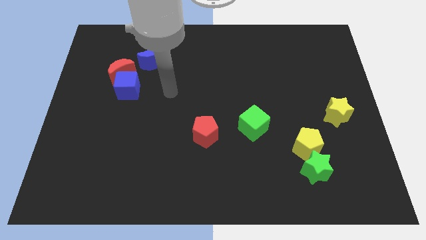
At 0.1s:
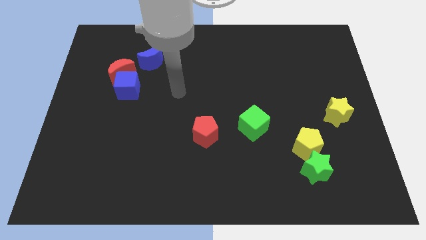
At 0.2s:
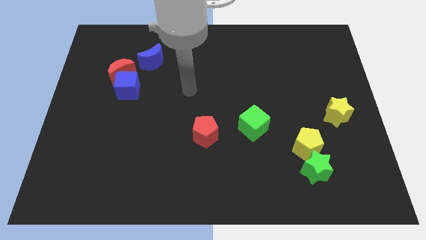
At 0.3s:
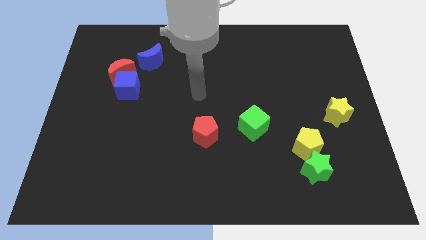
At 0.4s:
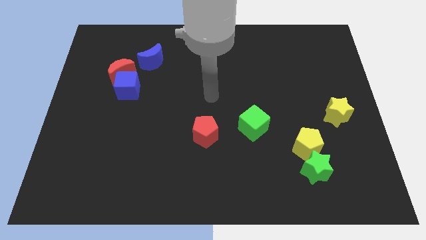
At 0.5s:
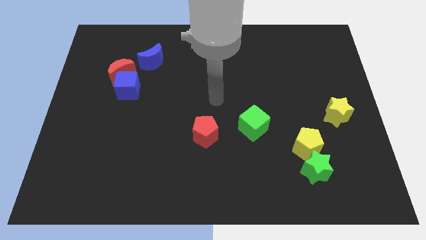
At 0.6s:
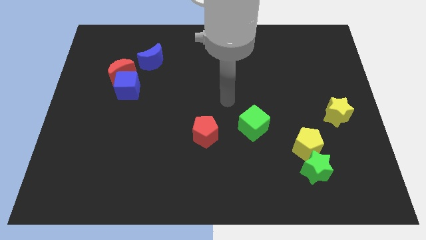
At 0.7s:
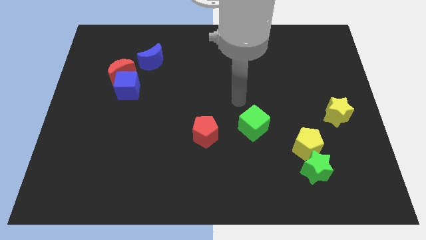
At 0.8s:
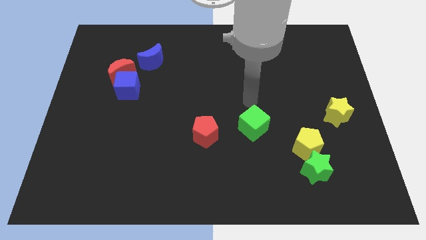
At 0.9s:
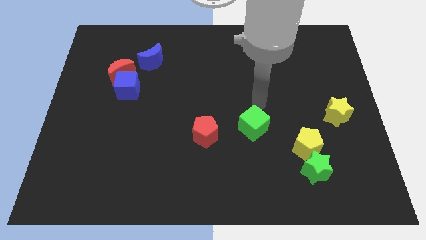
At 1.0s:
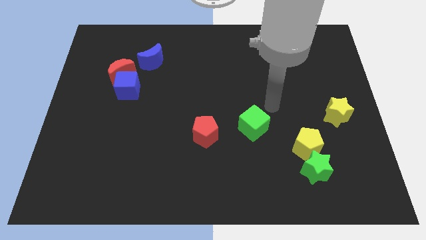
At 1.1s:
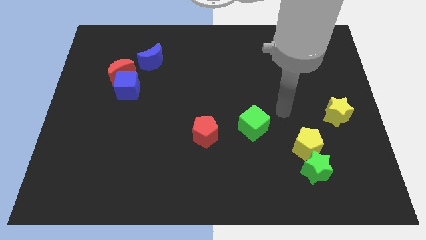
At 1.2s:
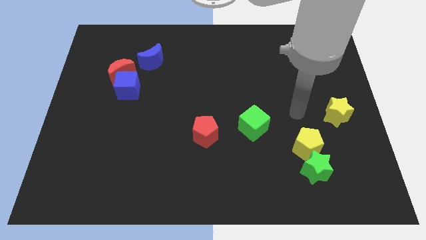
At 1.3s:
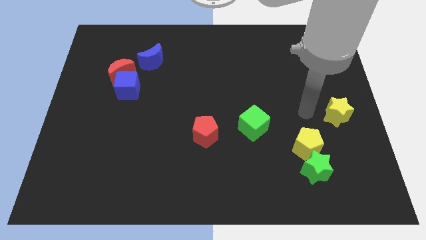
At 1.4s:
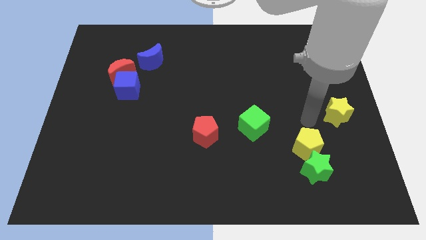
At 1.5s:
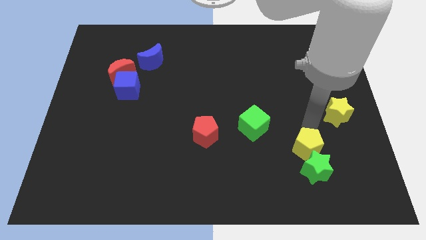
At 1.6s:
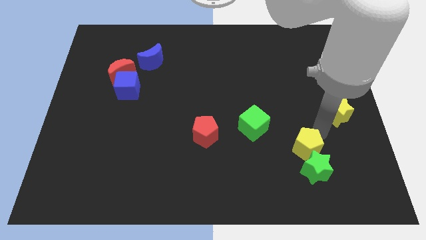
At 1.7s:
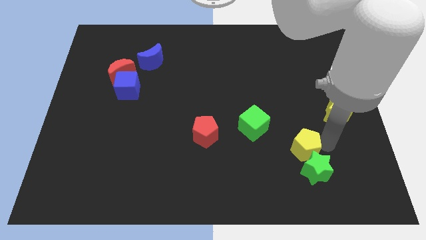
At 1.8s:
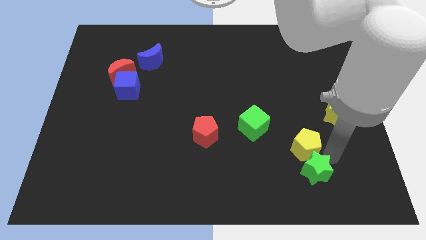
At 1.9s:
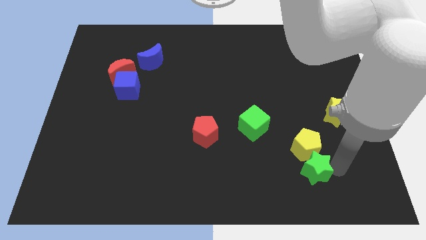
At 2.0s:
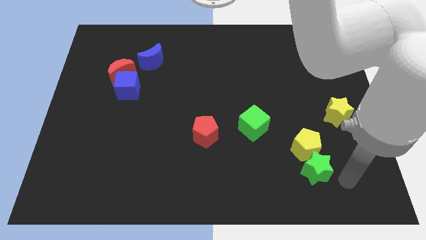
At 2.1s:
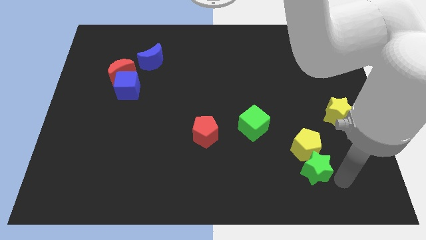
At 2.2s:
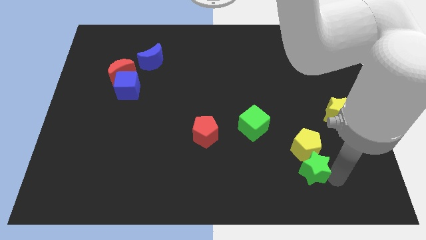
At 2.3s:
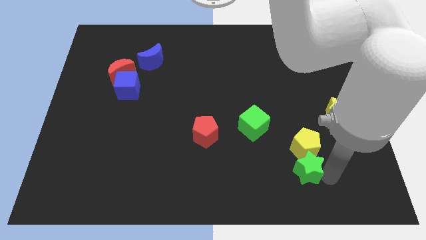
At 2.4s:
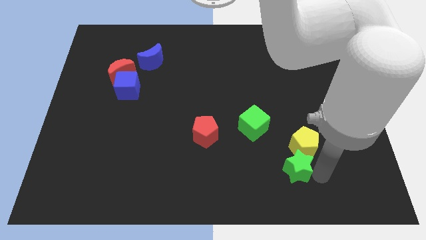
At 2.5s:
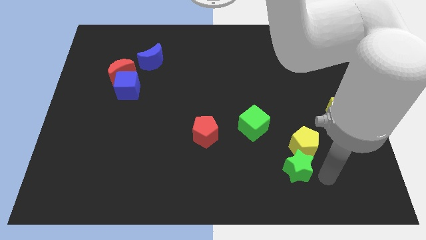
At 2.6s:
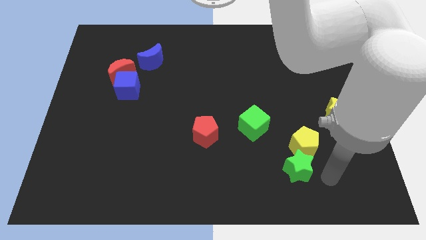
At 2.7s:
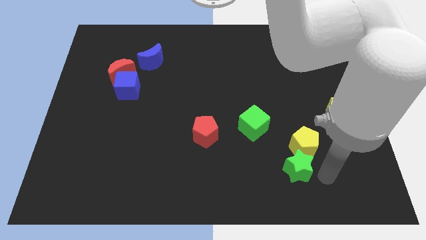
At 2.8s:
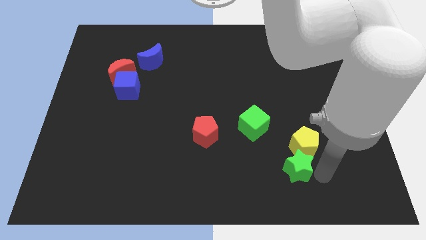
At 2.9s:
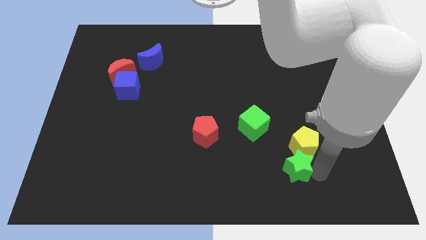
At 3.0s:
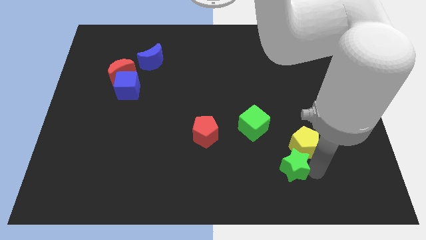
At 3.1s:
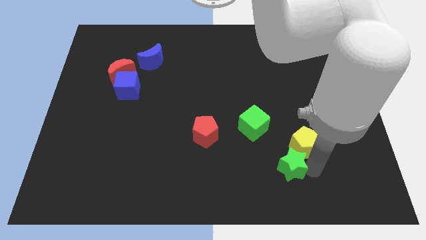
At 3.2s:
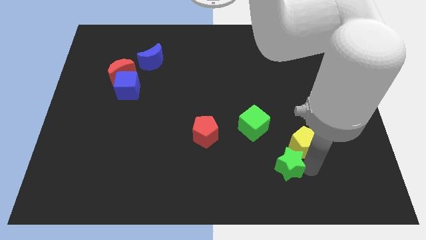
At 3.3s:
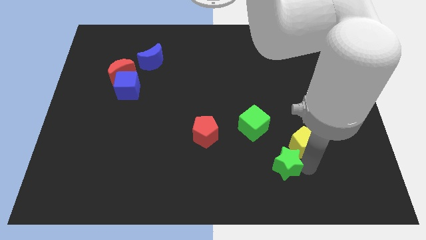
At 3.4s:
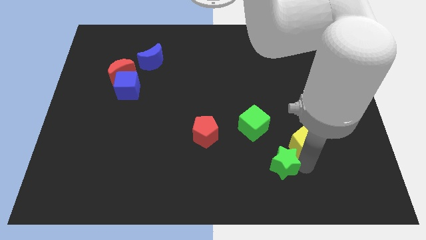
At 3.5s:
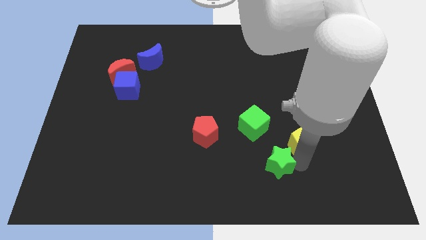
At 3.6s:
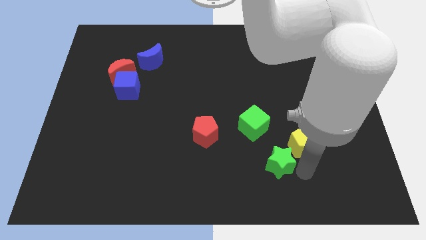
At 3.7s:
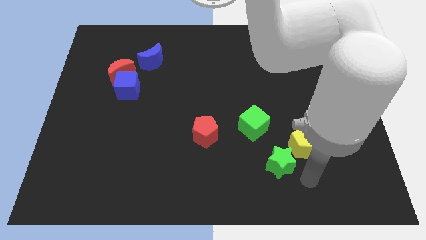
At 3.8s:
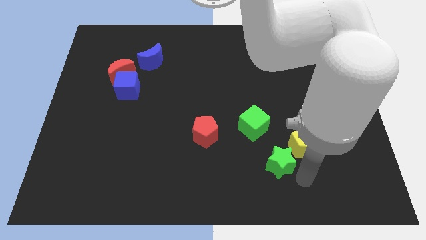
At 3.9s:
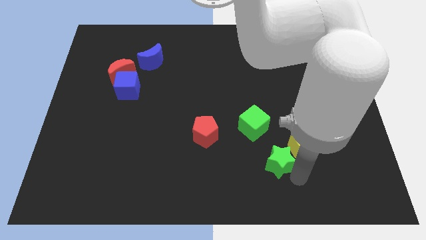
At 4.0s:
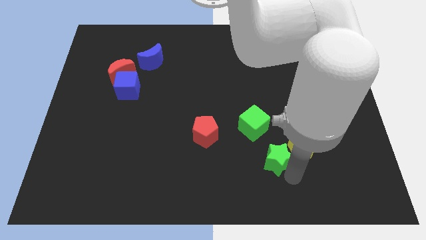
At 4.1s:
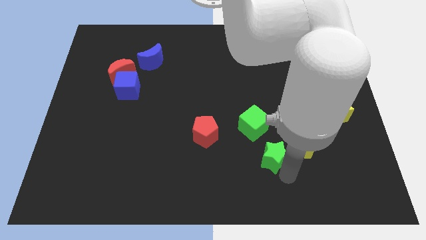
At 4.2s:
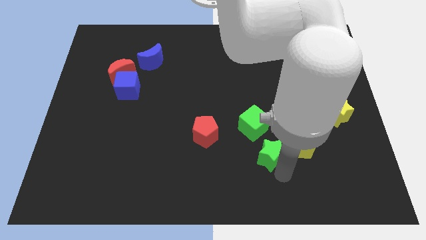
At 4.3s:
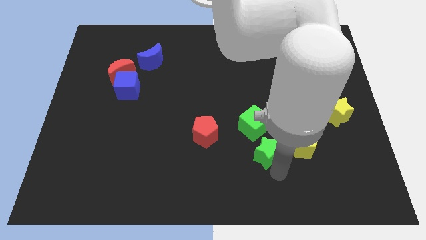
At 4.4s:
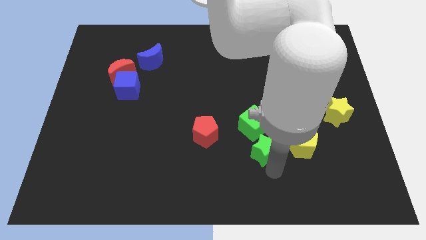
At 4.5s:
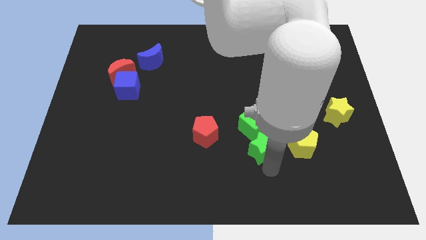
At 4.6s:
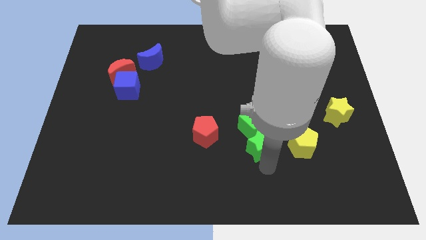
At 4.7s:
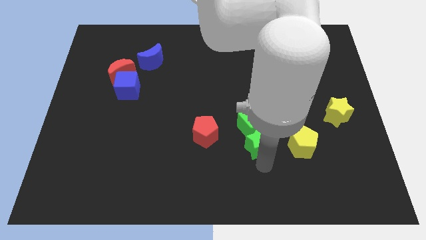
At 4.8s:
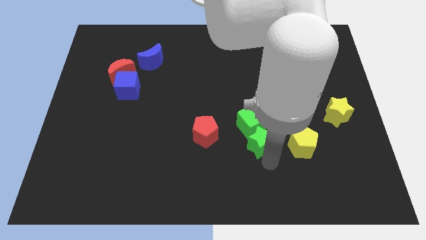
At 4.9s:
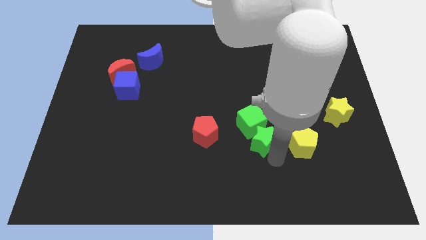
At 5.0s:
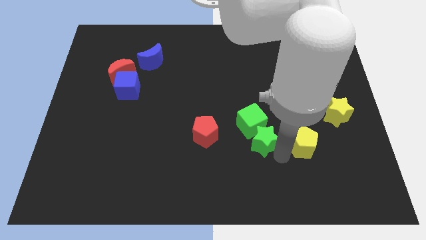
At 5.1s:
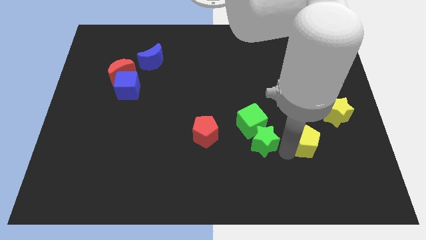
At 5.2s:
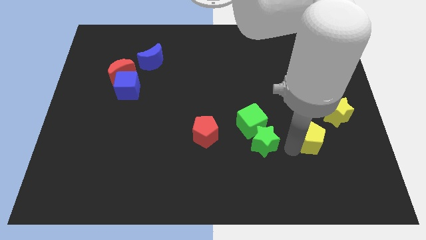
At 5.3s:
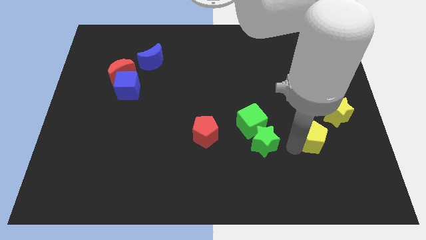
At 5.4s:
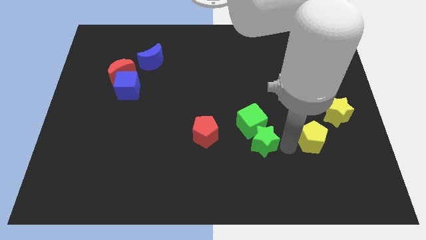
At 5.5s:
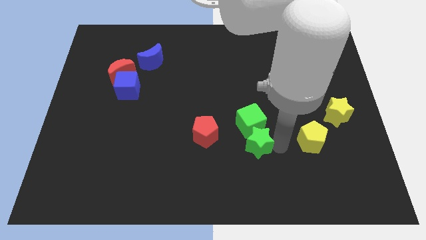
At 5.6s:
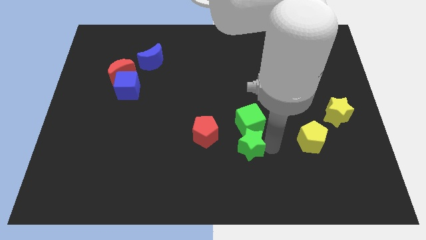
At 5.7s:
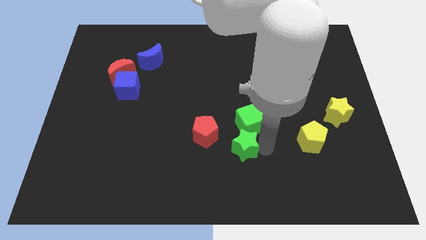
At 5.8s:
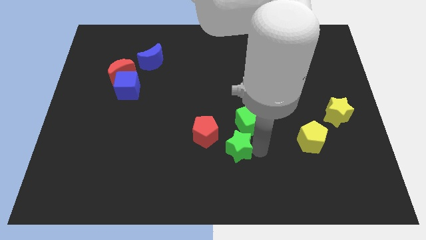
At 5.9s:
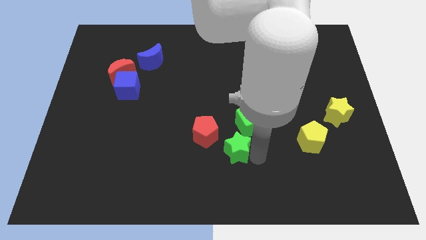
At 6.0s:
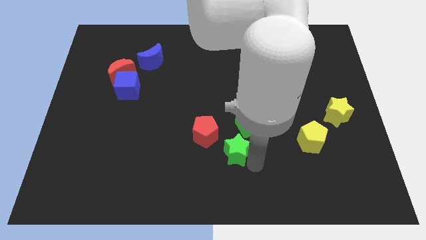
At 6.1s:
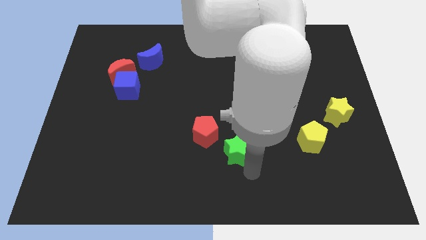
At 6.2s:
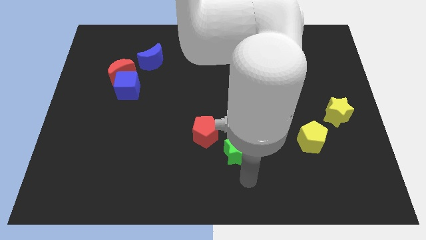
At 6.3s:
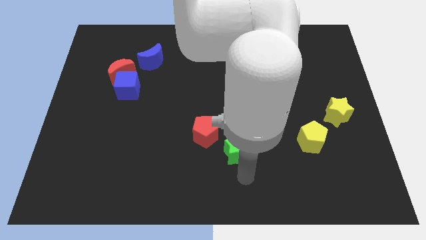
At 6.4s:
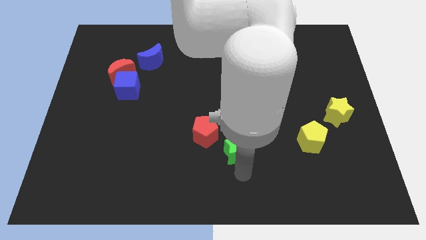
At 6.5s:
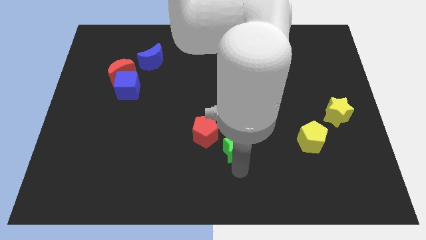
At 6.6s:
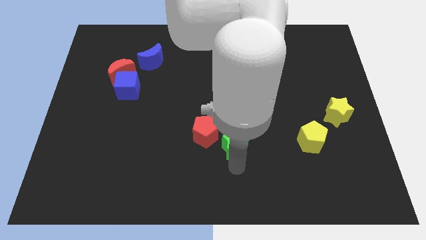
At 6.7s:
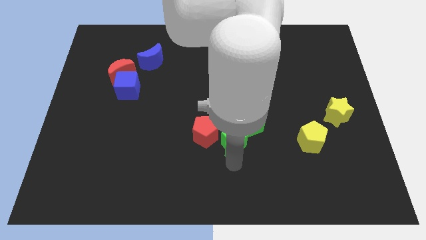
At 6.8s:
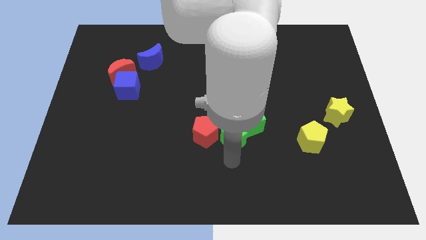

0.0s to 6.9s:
push the green star to the middle
